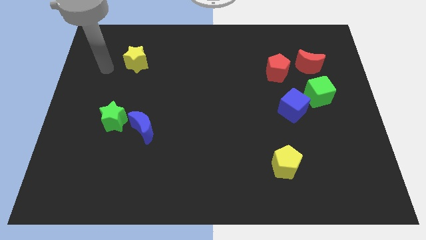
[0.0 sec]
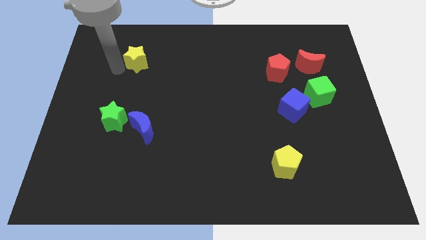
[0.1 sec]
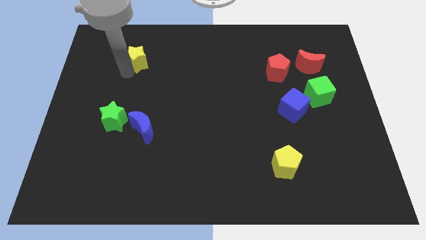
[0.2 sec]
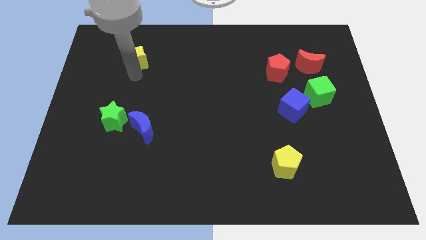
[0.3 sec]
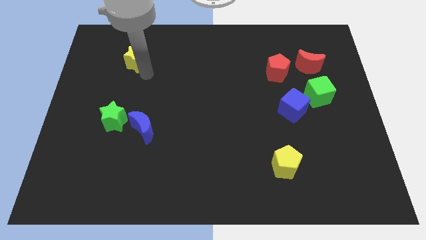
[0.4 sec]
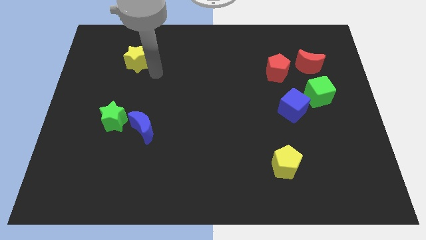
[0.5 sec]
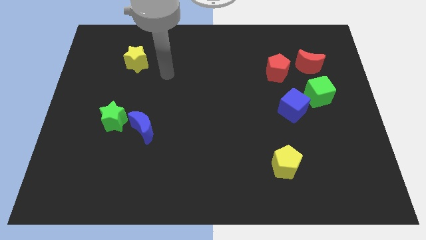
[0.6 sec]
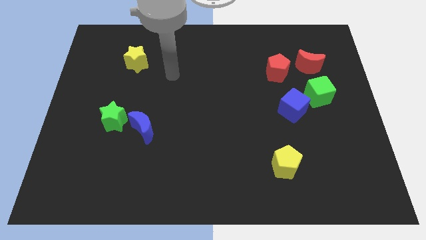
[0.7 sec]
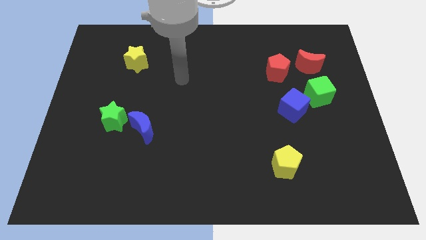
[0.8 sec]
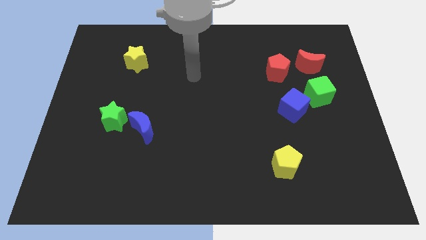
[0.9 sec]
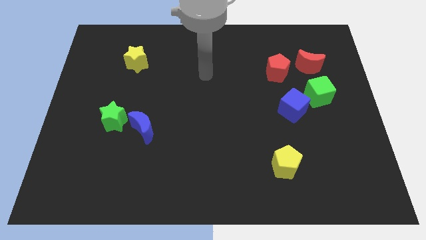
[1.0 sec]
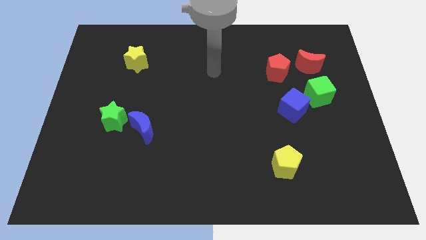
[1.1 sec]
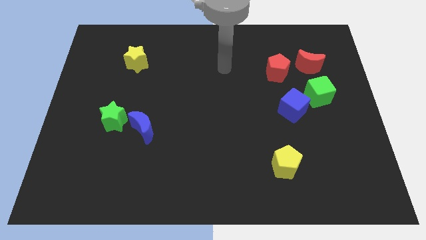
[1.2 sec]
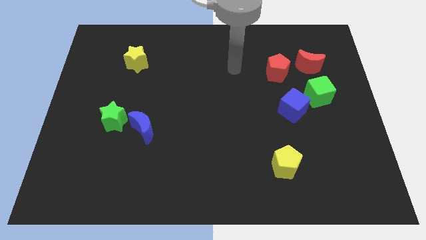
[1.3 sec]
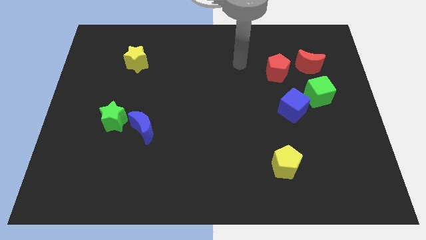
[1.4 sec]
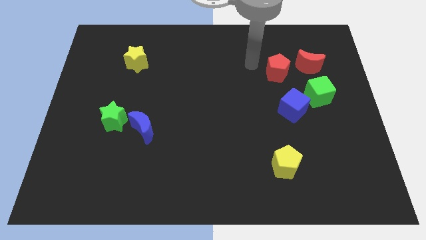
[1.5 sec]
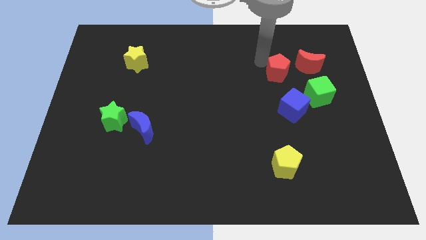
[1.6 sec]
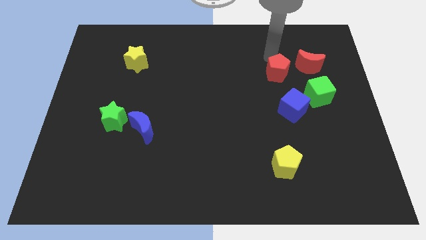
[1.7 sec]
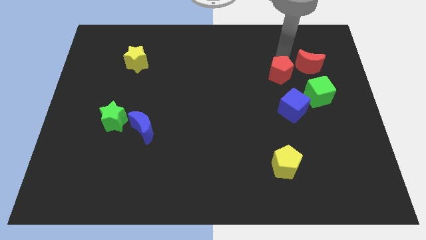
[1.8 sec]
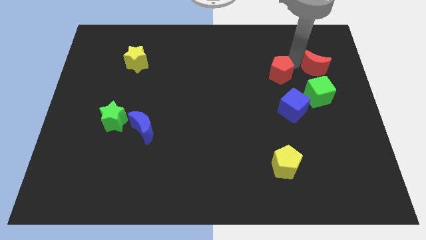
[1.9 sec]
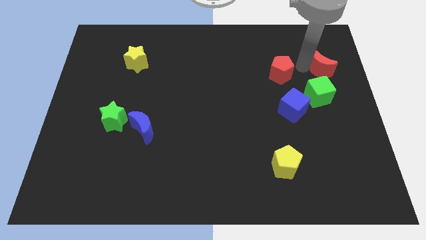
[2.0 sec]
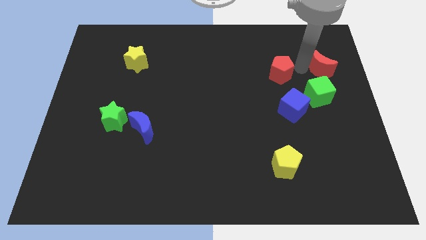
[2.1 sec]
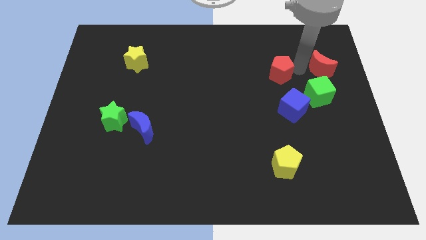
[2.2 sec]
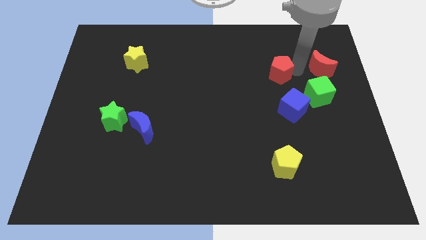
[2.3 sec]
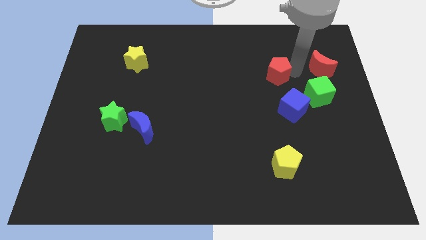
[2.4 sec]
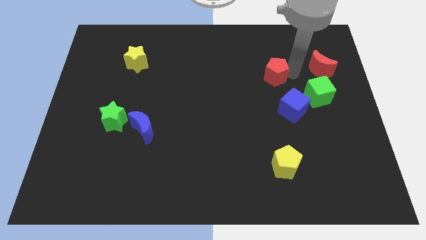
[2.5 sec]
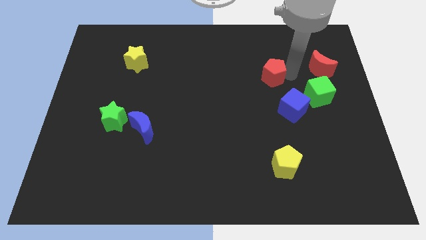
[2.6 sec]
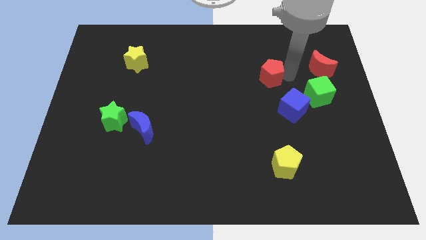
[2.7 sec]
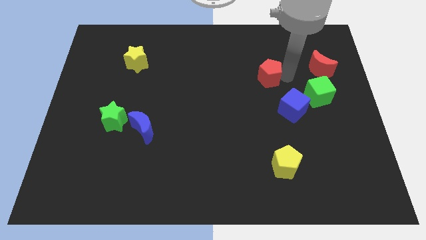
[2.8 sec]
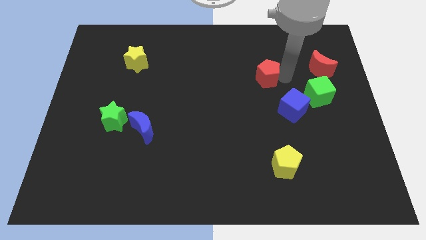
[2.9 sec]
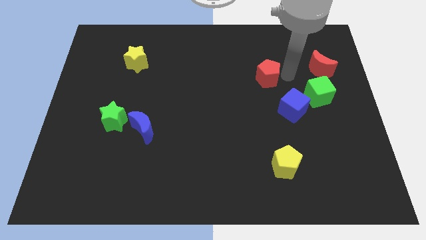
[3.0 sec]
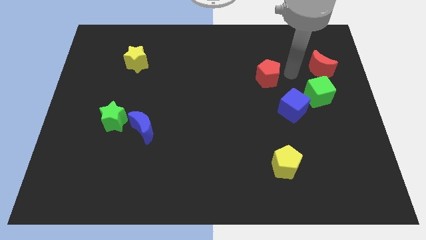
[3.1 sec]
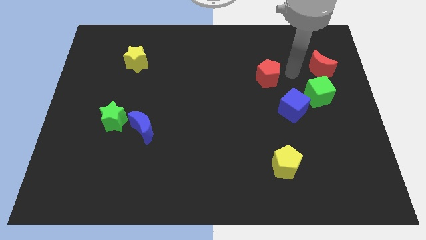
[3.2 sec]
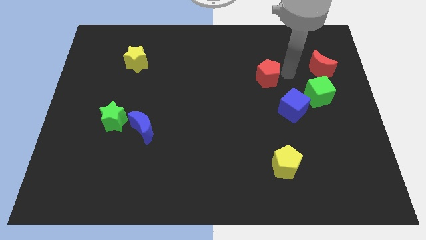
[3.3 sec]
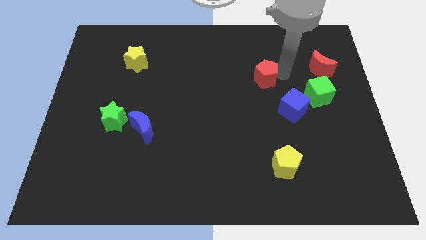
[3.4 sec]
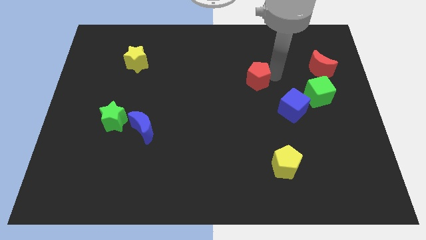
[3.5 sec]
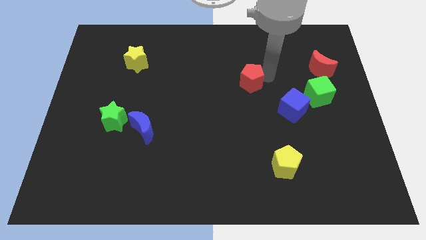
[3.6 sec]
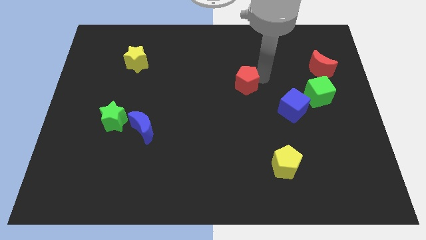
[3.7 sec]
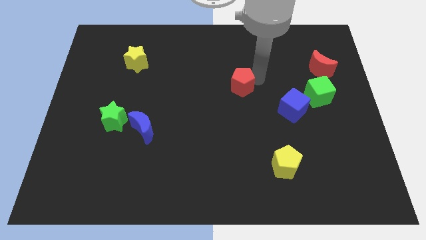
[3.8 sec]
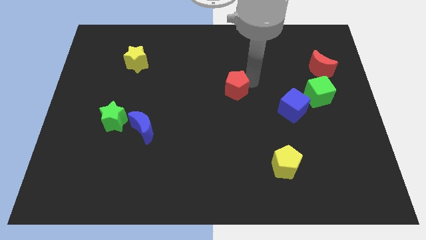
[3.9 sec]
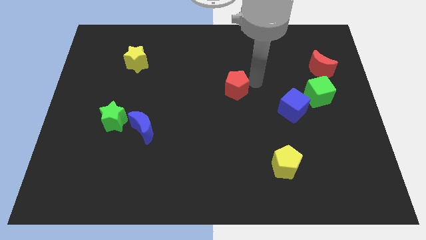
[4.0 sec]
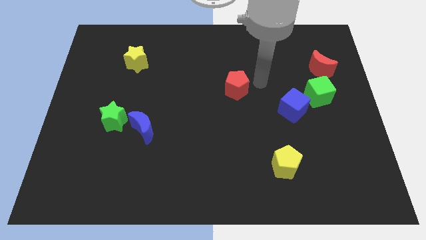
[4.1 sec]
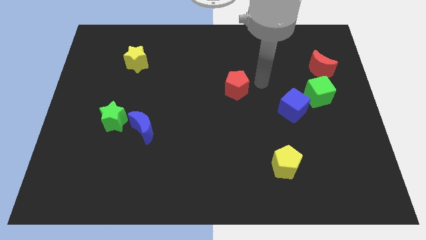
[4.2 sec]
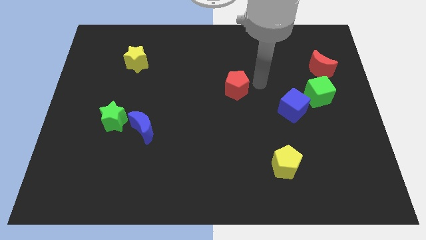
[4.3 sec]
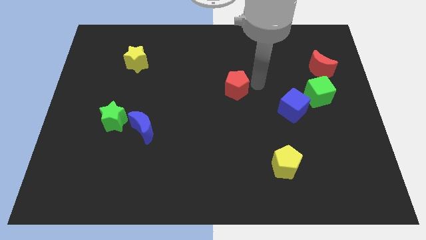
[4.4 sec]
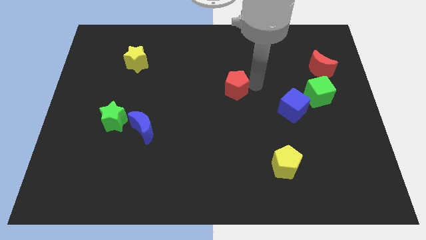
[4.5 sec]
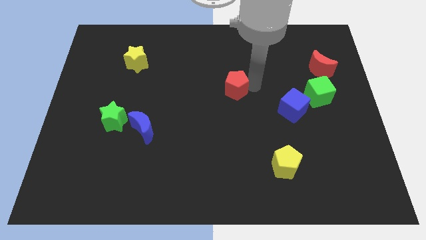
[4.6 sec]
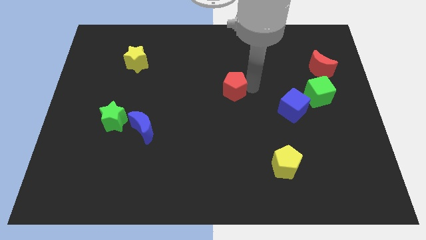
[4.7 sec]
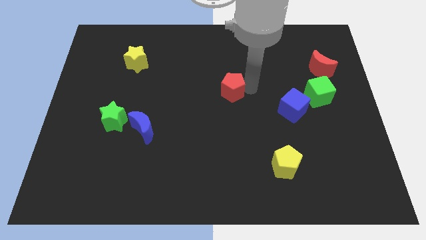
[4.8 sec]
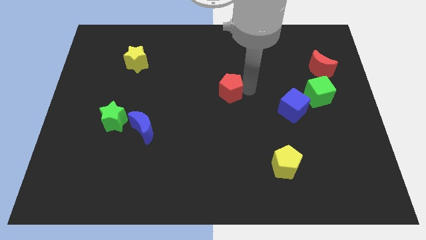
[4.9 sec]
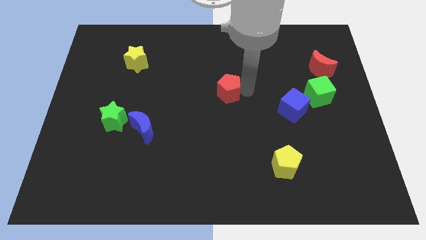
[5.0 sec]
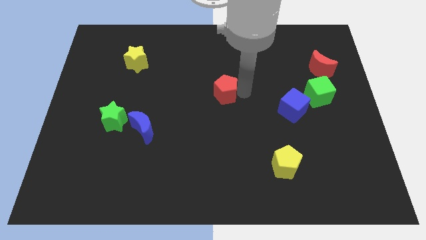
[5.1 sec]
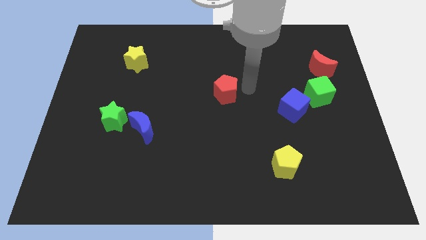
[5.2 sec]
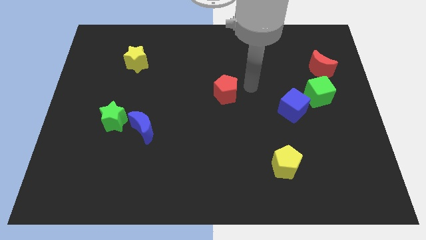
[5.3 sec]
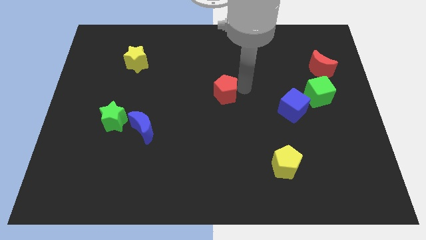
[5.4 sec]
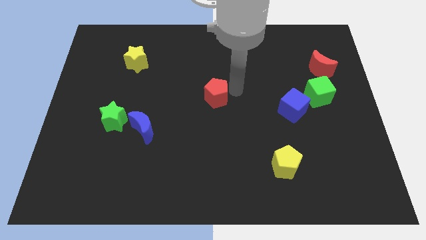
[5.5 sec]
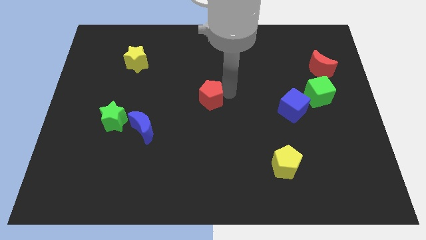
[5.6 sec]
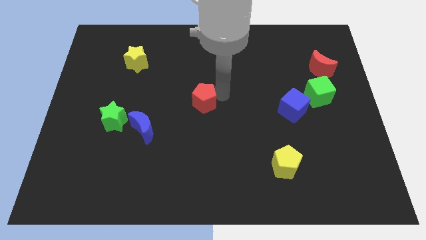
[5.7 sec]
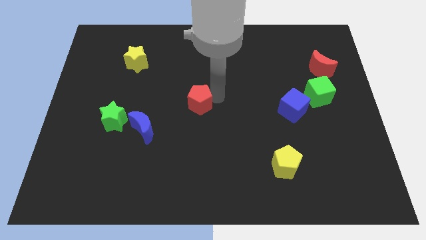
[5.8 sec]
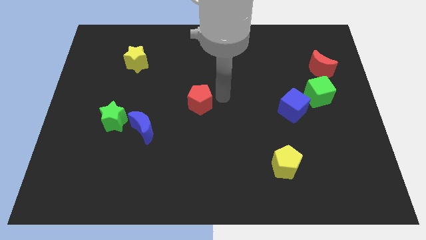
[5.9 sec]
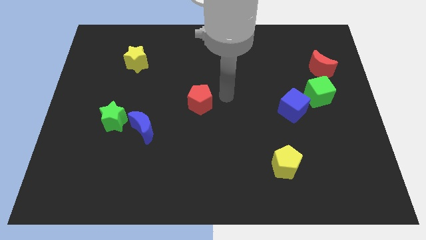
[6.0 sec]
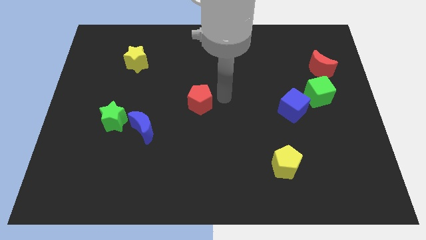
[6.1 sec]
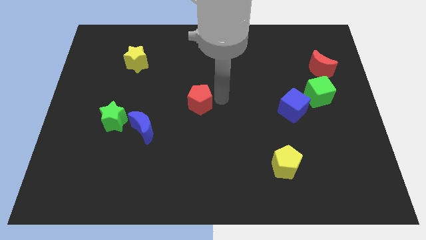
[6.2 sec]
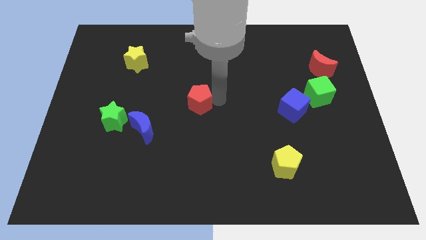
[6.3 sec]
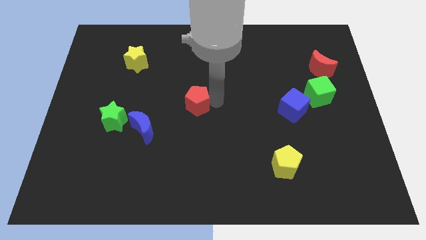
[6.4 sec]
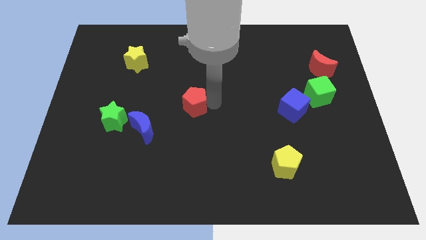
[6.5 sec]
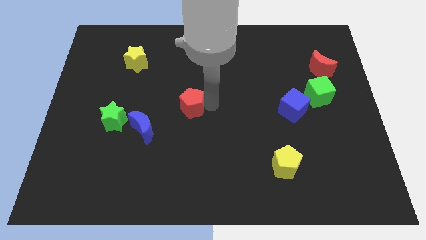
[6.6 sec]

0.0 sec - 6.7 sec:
push the red pentagon diagonally up and to the right of the blue moon

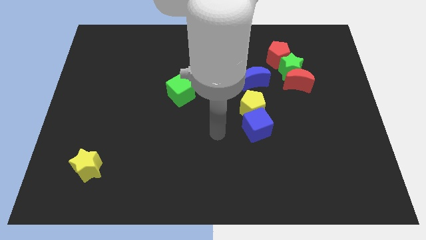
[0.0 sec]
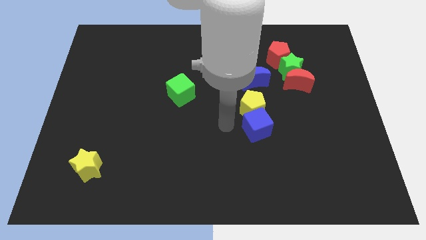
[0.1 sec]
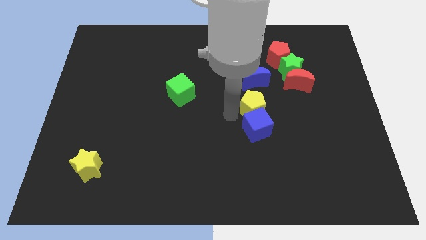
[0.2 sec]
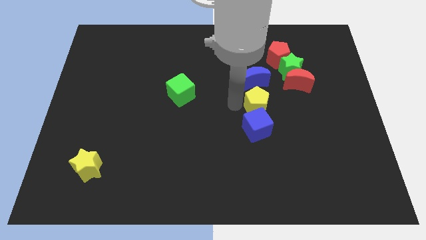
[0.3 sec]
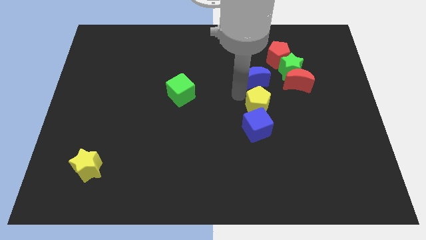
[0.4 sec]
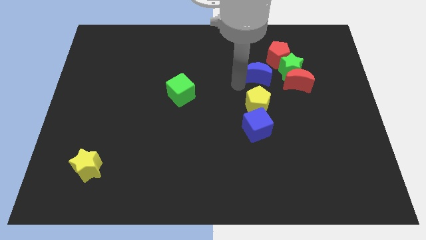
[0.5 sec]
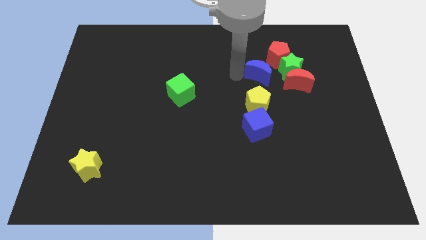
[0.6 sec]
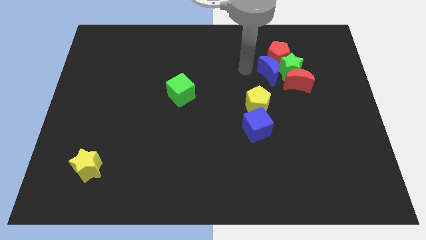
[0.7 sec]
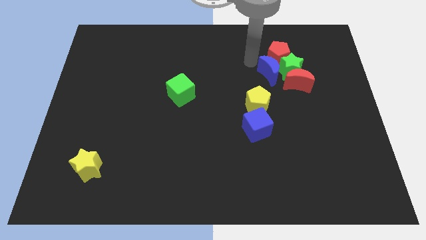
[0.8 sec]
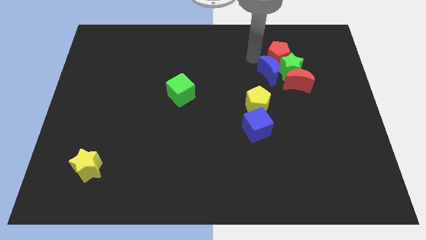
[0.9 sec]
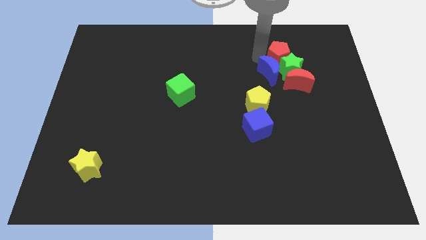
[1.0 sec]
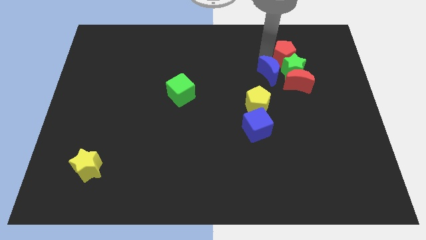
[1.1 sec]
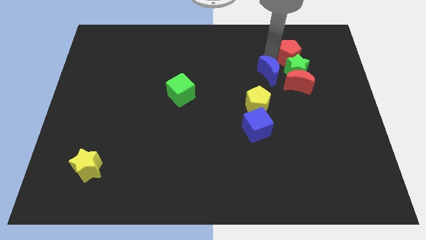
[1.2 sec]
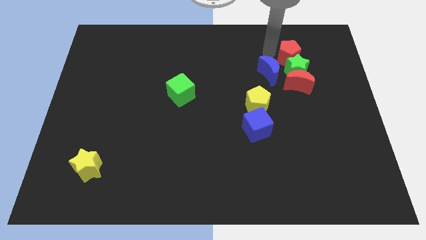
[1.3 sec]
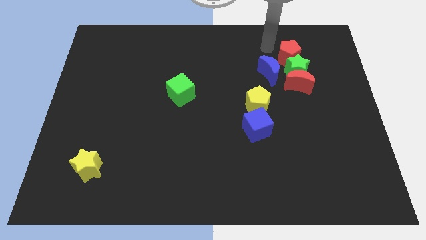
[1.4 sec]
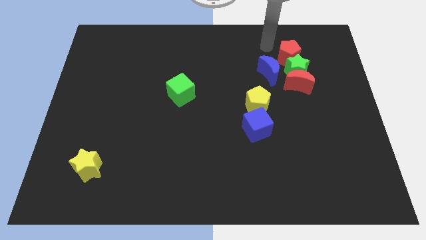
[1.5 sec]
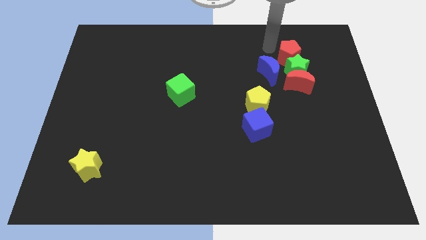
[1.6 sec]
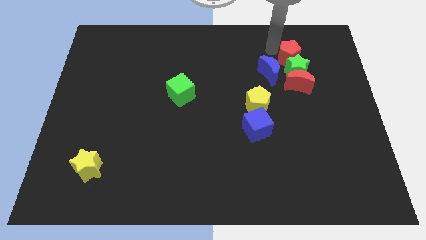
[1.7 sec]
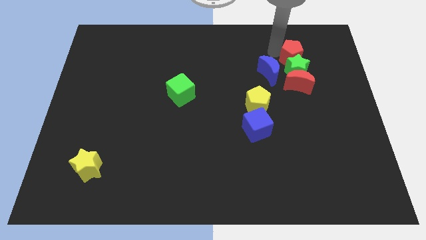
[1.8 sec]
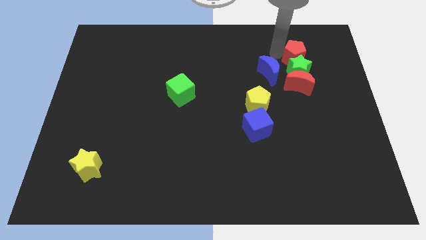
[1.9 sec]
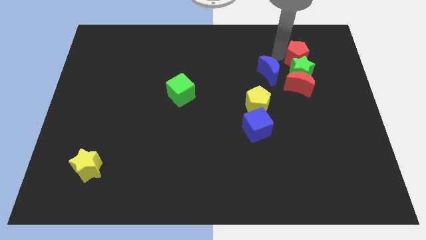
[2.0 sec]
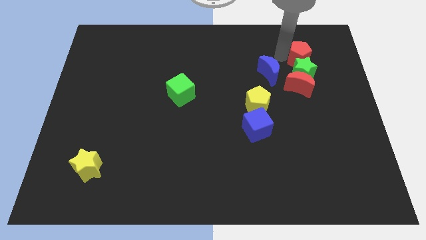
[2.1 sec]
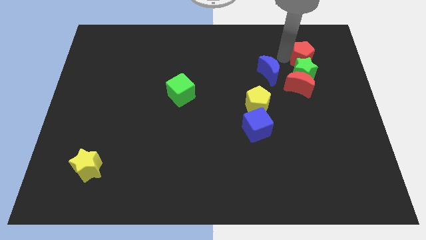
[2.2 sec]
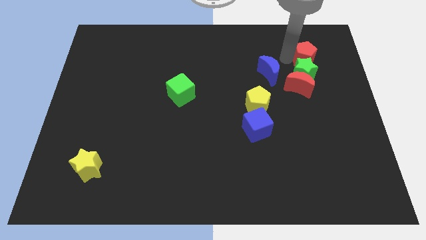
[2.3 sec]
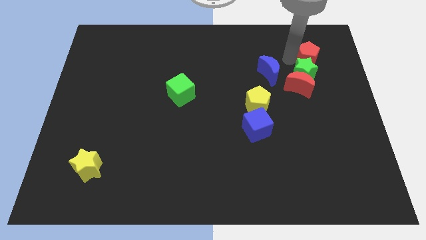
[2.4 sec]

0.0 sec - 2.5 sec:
move the red pentagon to the top right side of the red moon
